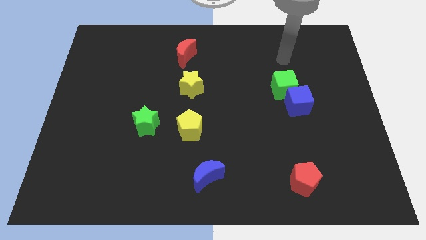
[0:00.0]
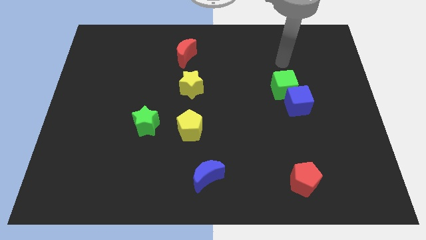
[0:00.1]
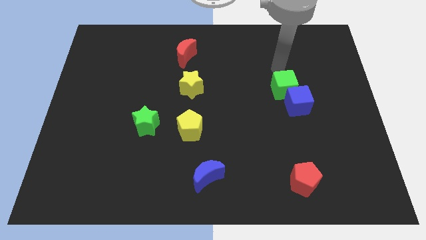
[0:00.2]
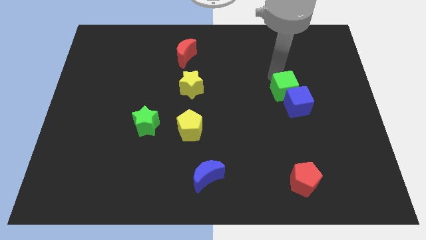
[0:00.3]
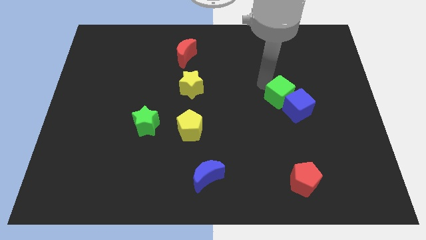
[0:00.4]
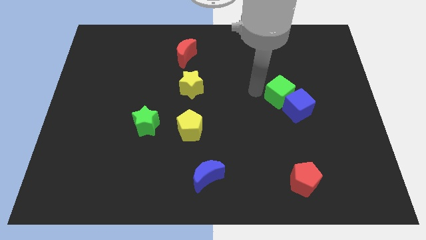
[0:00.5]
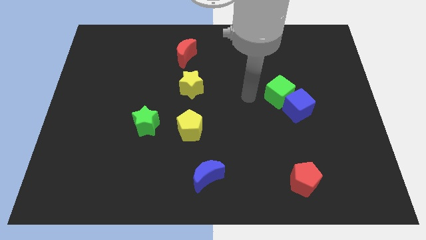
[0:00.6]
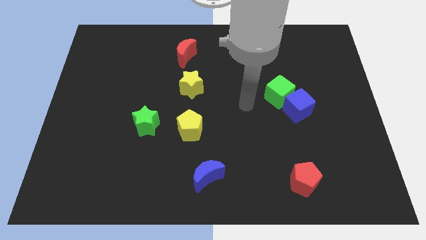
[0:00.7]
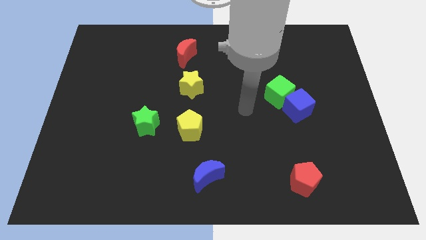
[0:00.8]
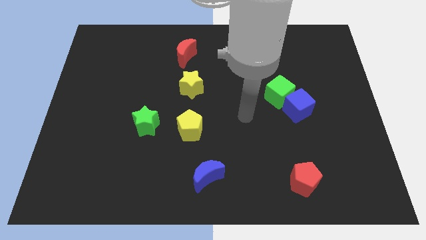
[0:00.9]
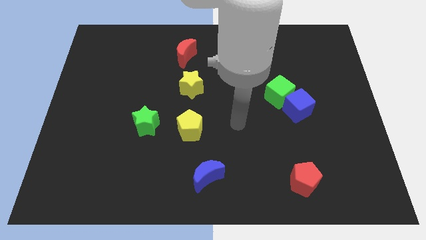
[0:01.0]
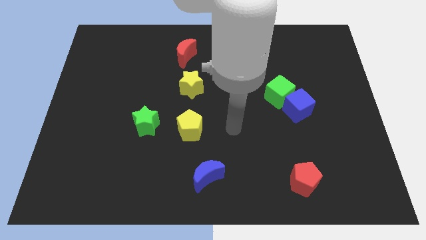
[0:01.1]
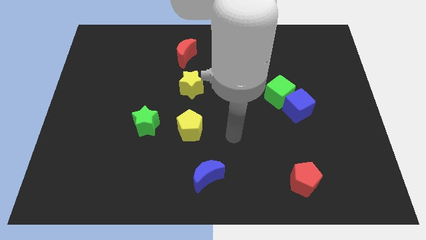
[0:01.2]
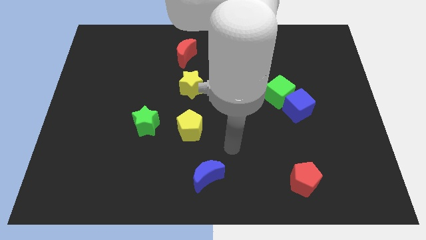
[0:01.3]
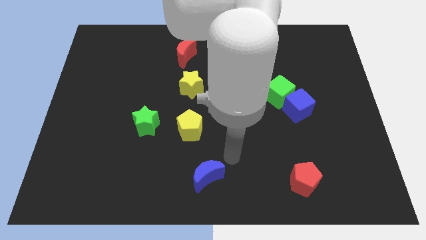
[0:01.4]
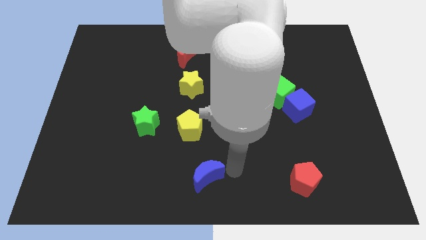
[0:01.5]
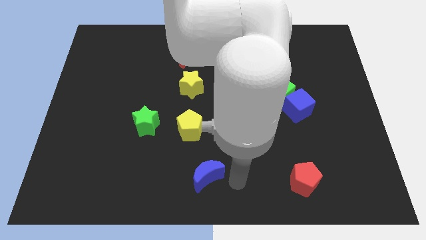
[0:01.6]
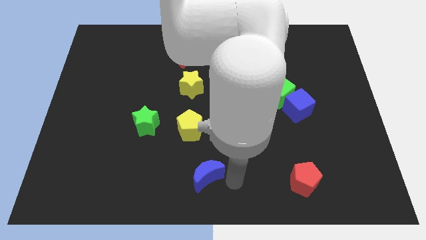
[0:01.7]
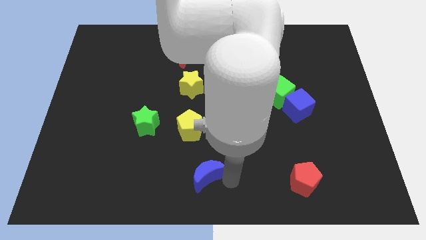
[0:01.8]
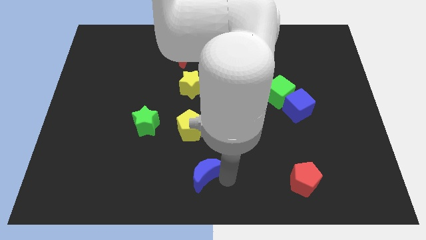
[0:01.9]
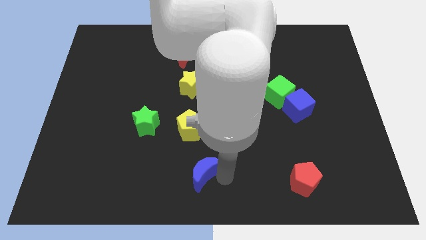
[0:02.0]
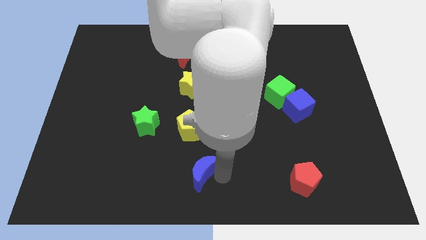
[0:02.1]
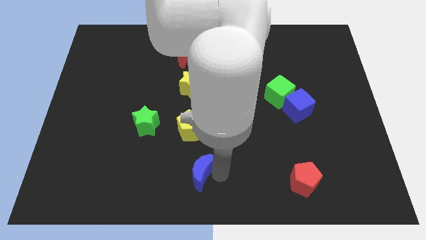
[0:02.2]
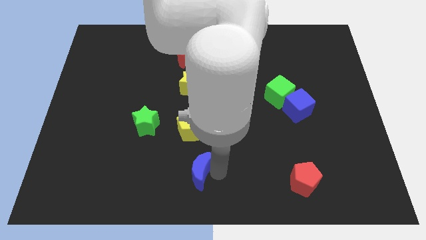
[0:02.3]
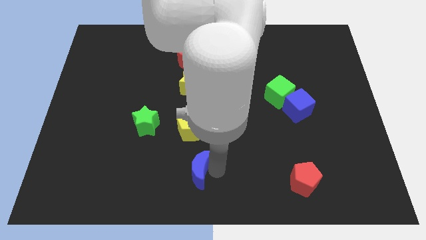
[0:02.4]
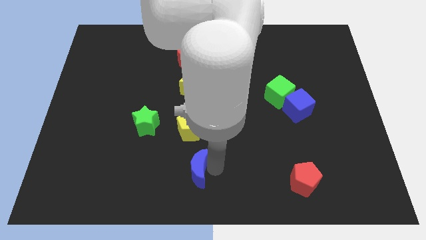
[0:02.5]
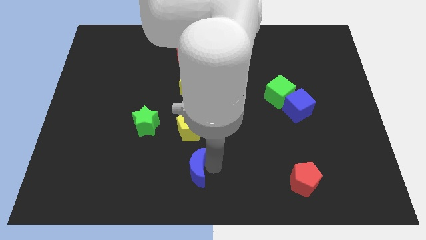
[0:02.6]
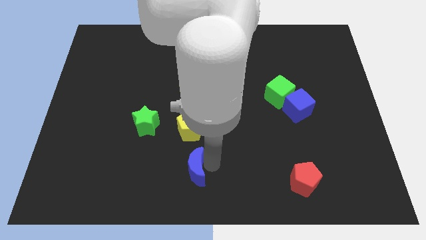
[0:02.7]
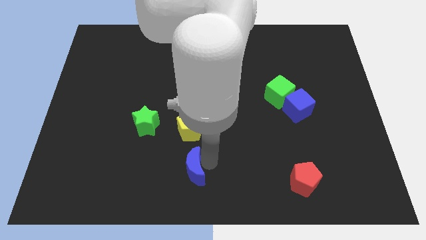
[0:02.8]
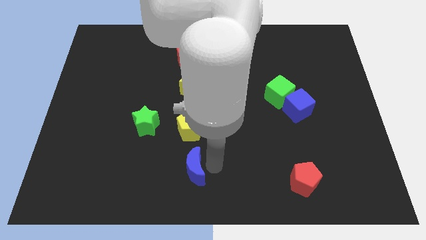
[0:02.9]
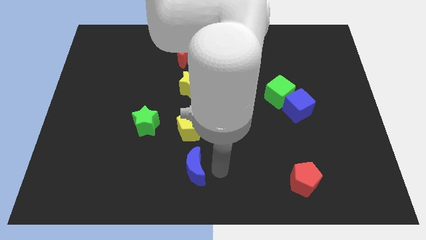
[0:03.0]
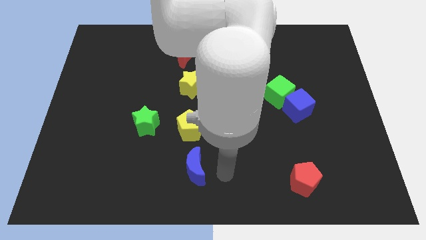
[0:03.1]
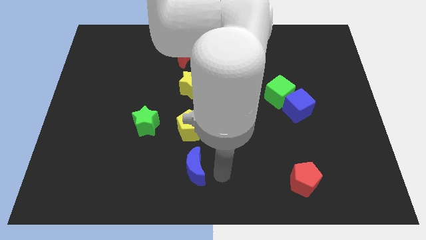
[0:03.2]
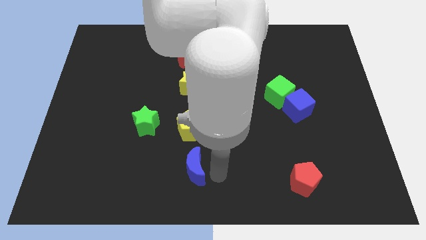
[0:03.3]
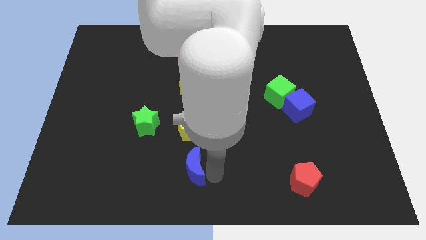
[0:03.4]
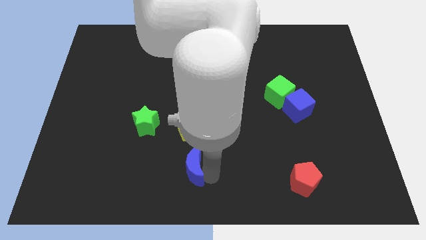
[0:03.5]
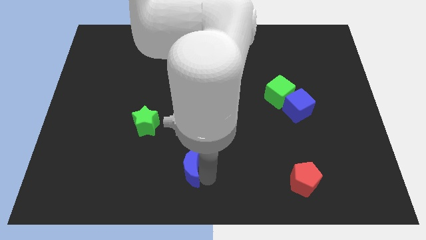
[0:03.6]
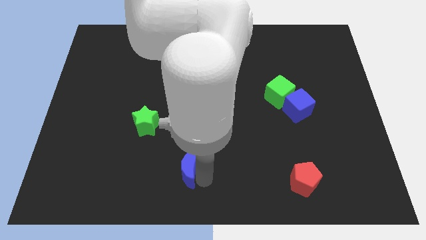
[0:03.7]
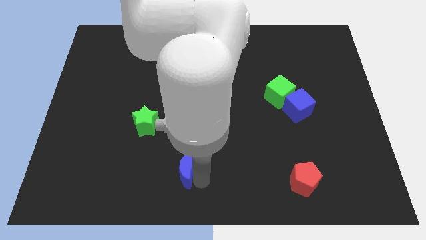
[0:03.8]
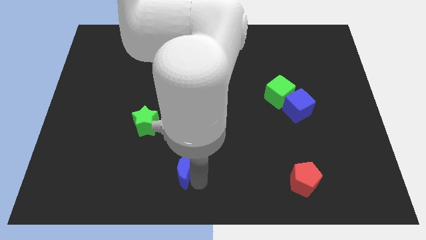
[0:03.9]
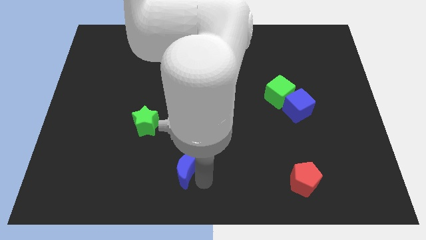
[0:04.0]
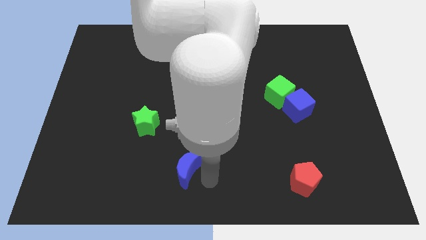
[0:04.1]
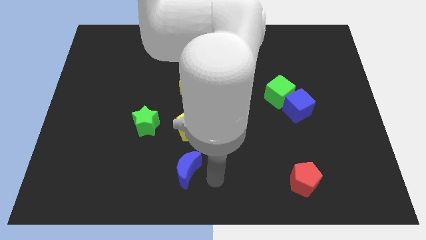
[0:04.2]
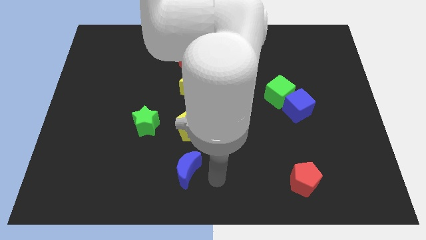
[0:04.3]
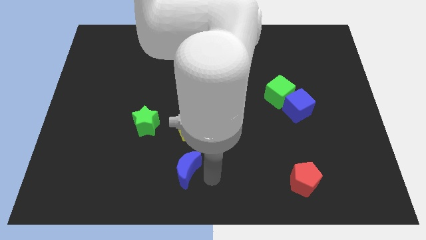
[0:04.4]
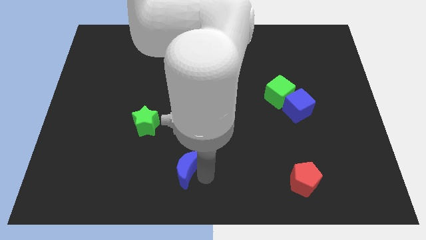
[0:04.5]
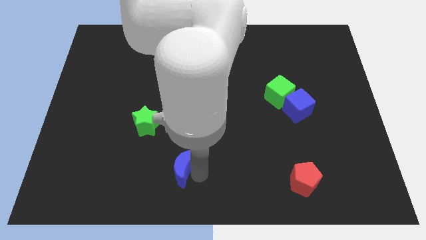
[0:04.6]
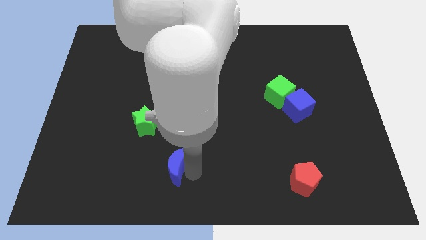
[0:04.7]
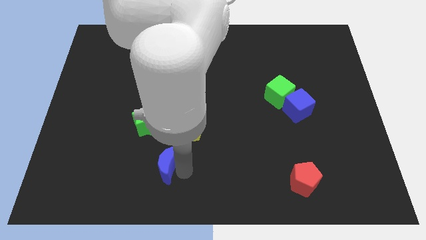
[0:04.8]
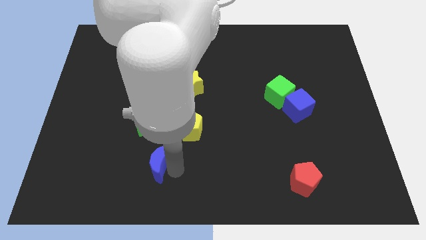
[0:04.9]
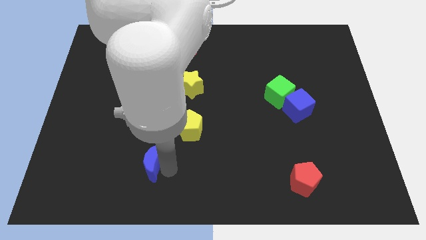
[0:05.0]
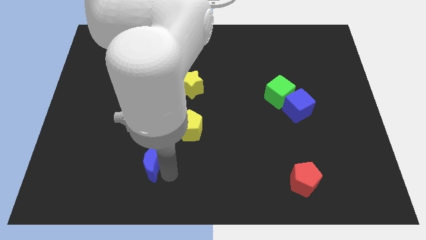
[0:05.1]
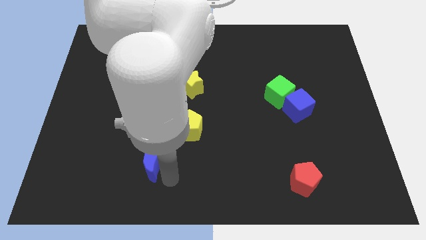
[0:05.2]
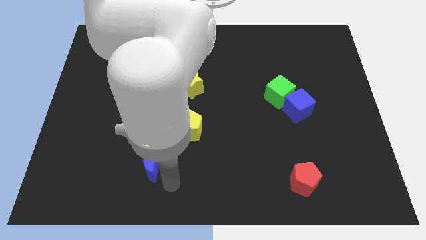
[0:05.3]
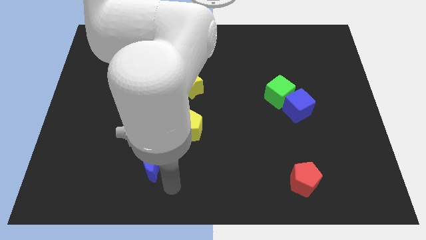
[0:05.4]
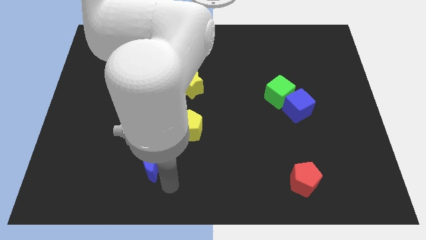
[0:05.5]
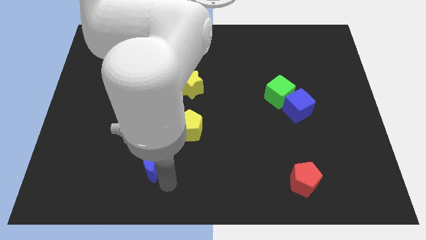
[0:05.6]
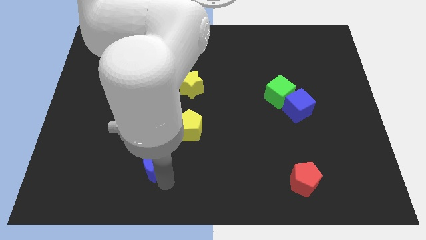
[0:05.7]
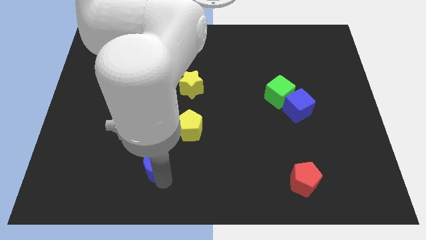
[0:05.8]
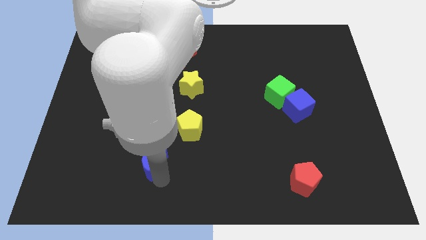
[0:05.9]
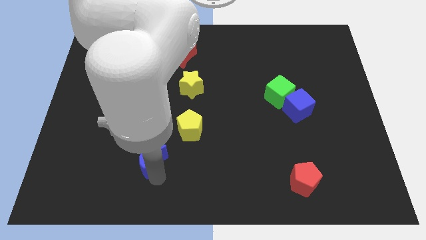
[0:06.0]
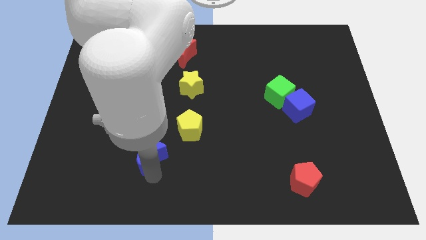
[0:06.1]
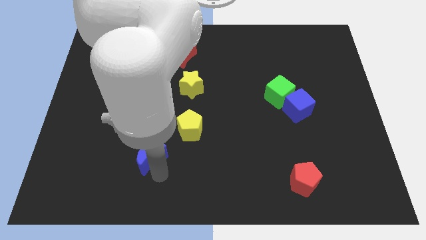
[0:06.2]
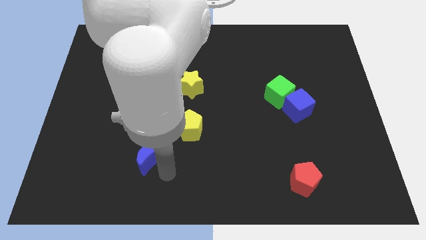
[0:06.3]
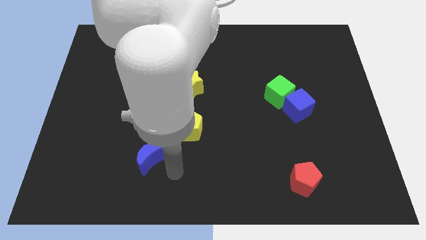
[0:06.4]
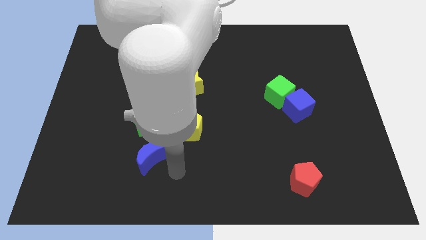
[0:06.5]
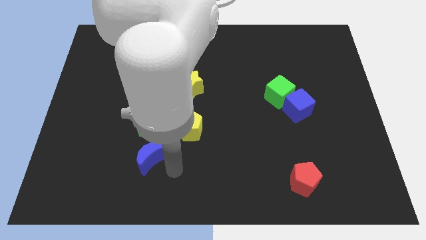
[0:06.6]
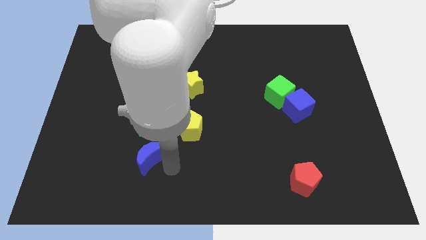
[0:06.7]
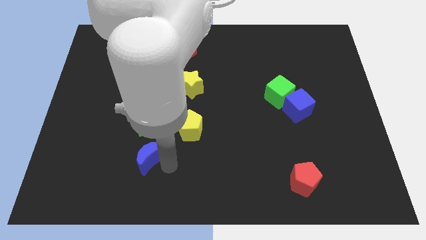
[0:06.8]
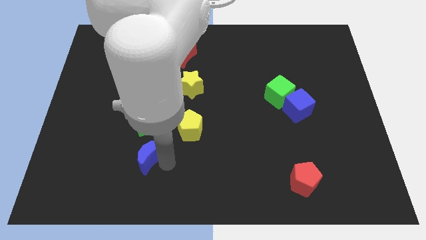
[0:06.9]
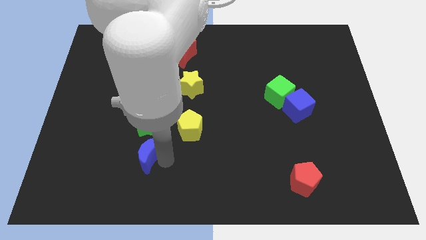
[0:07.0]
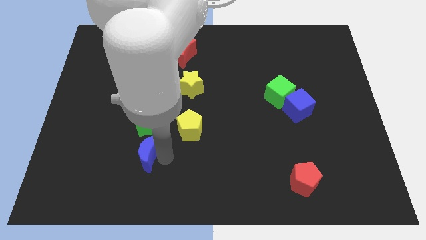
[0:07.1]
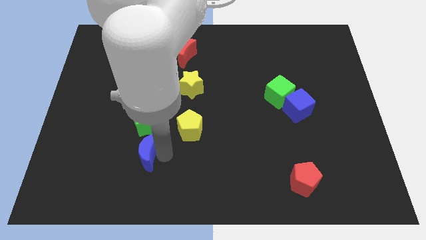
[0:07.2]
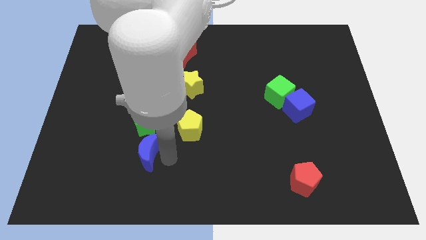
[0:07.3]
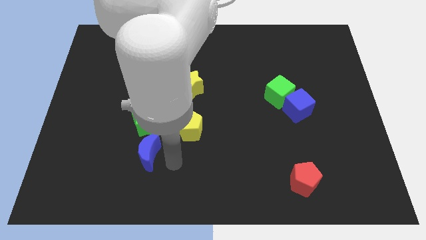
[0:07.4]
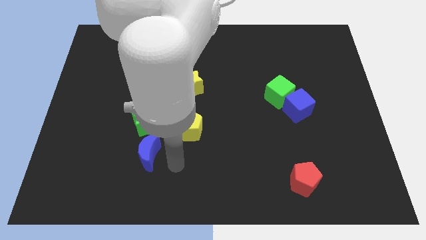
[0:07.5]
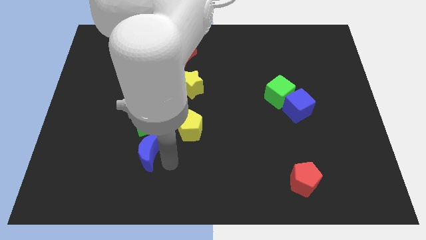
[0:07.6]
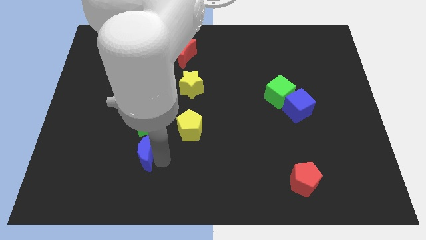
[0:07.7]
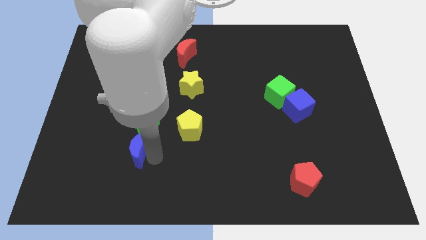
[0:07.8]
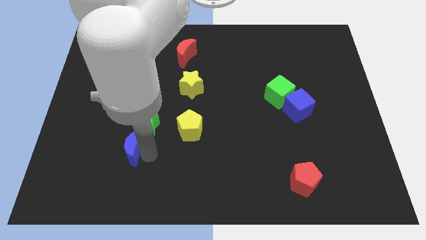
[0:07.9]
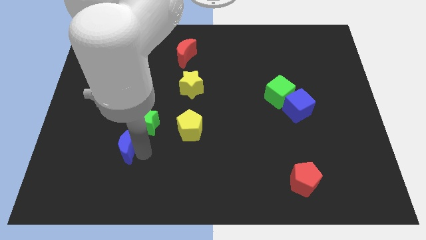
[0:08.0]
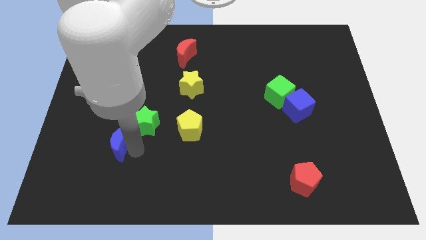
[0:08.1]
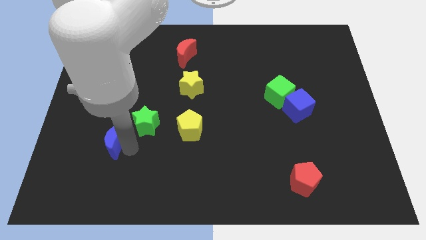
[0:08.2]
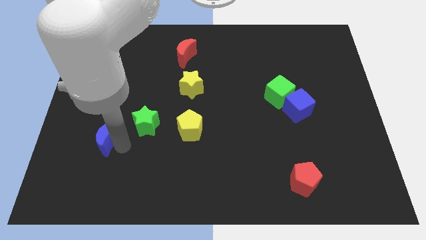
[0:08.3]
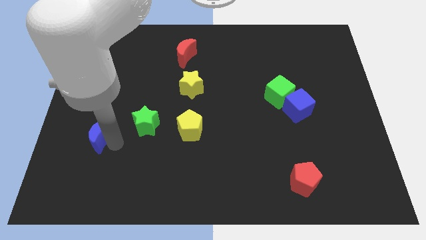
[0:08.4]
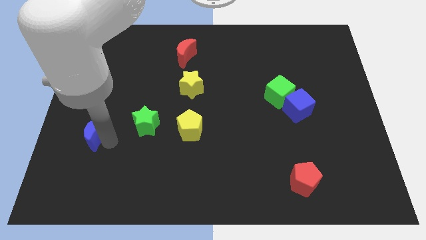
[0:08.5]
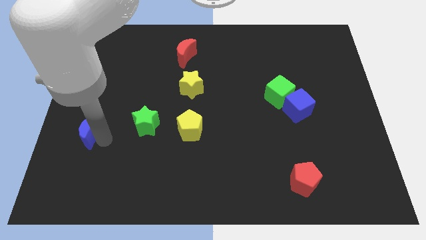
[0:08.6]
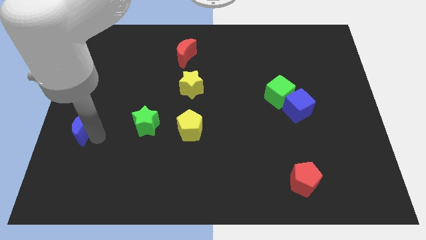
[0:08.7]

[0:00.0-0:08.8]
push the blue moon to the left side of the board
